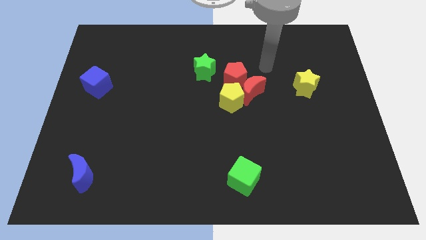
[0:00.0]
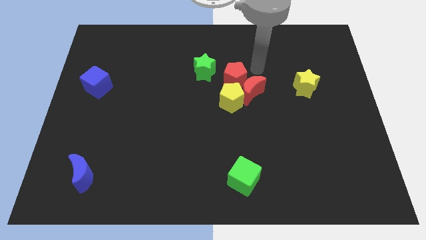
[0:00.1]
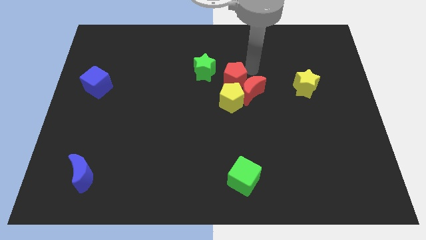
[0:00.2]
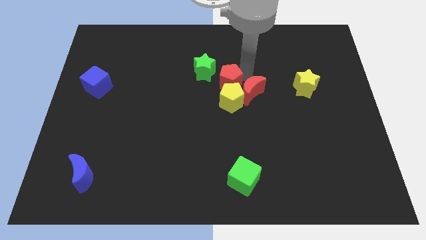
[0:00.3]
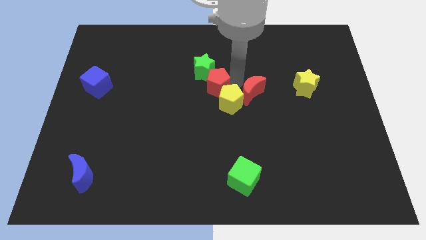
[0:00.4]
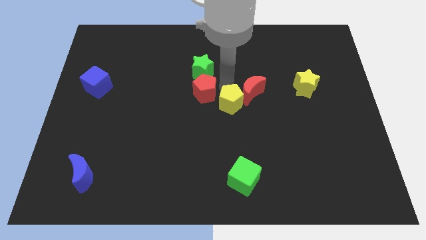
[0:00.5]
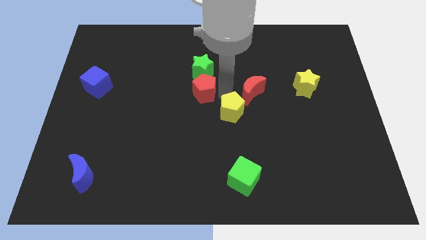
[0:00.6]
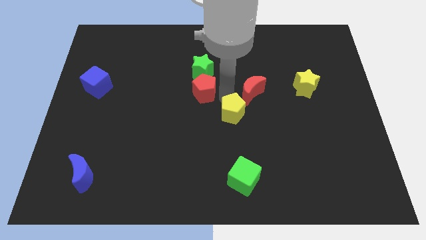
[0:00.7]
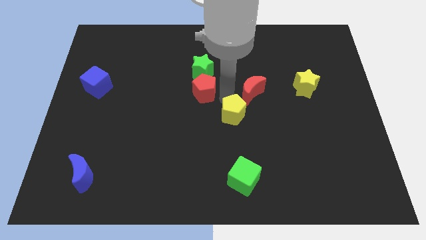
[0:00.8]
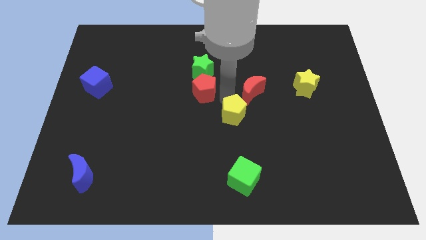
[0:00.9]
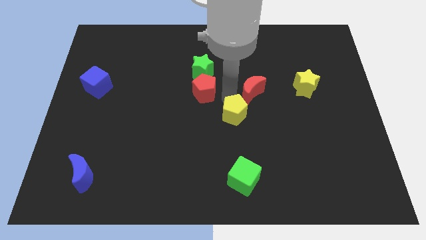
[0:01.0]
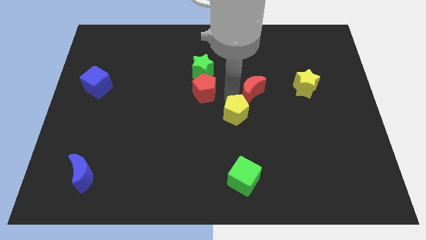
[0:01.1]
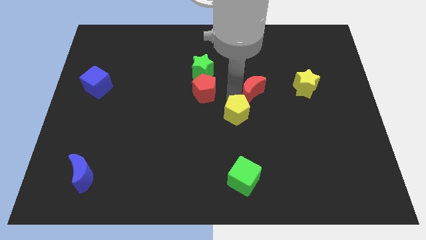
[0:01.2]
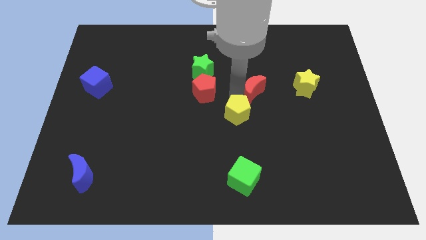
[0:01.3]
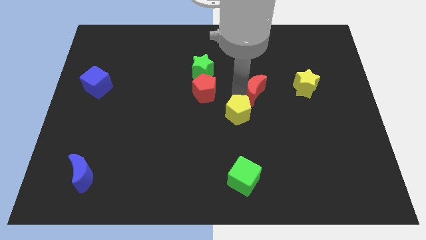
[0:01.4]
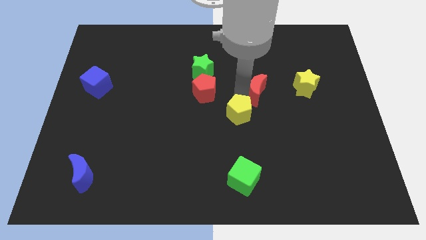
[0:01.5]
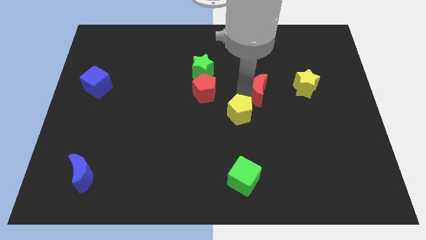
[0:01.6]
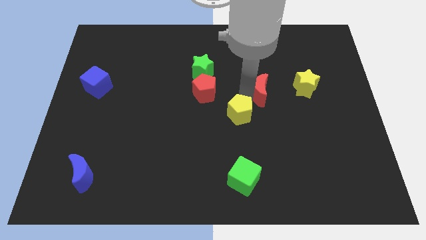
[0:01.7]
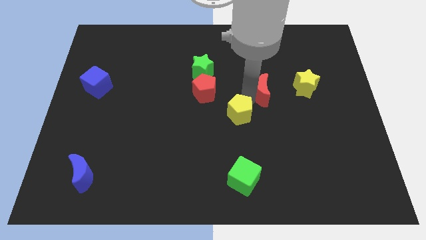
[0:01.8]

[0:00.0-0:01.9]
separate the red moon from the red pentagon and yellow pentagon

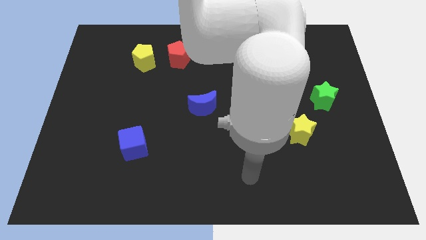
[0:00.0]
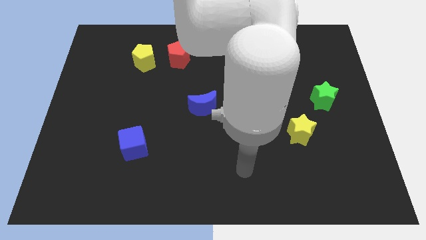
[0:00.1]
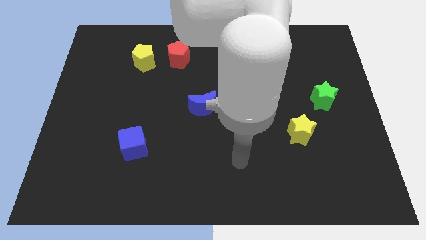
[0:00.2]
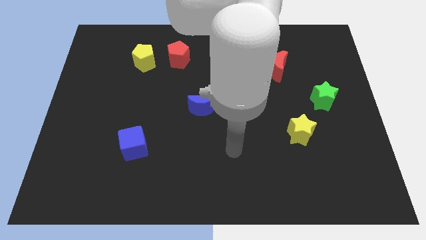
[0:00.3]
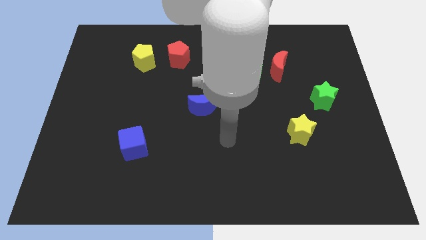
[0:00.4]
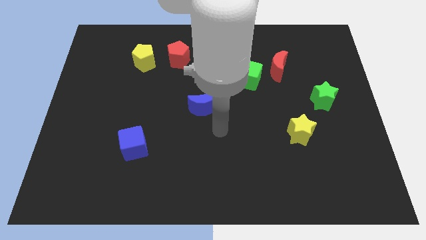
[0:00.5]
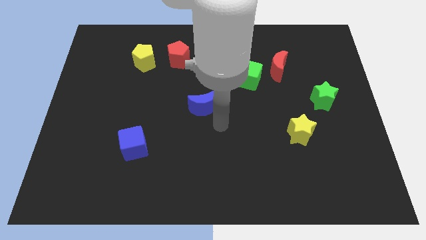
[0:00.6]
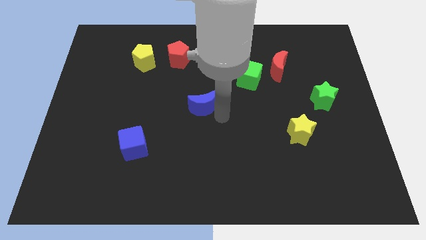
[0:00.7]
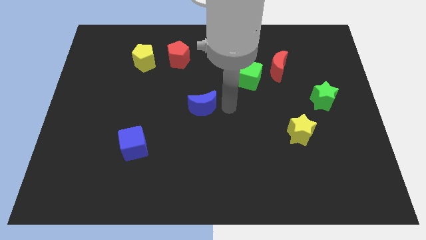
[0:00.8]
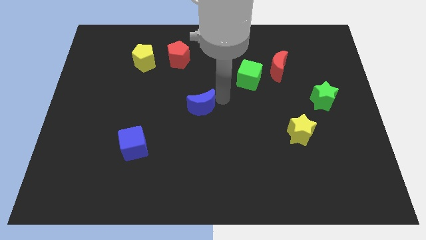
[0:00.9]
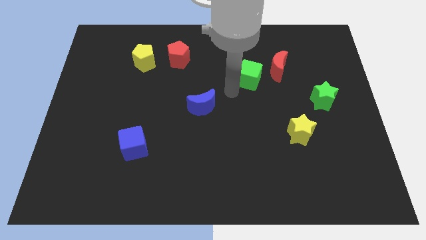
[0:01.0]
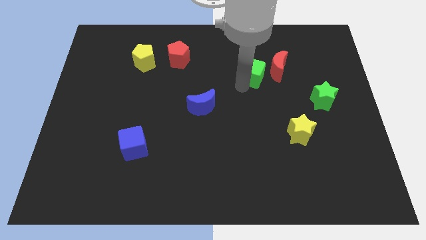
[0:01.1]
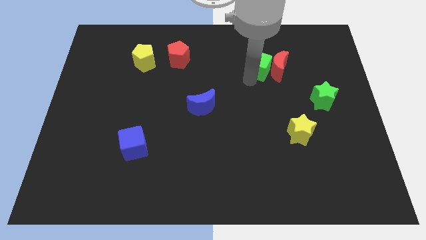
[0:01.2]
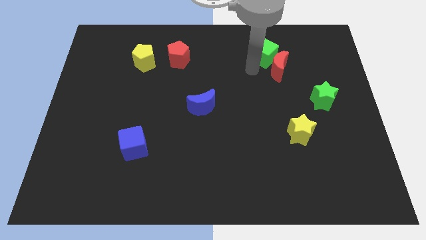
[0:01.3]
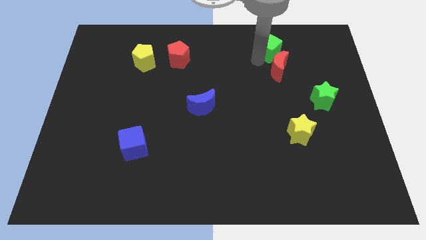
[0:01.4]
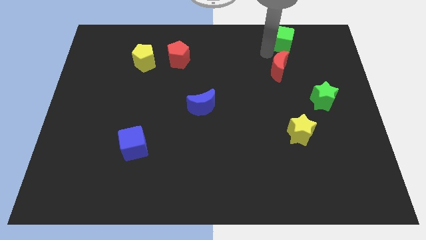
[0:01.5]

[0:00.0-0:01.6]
move the red moon away from the green cube

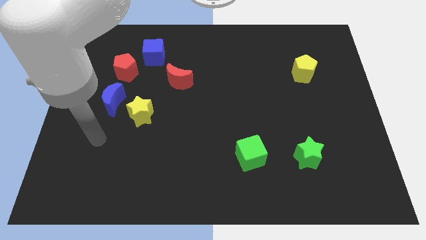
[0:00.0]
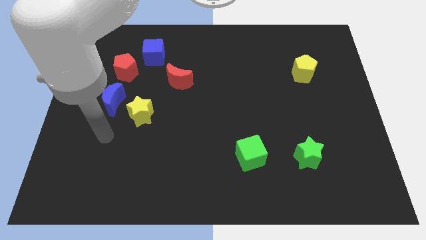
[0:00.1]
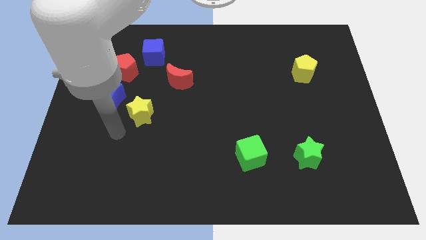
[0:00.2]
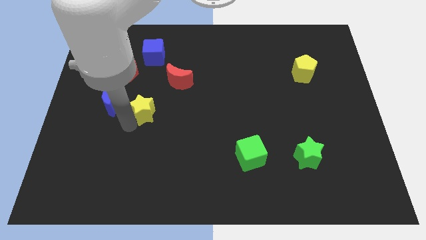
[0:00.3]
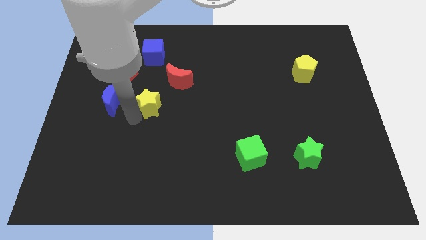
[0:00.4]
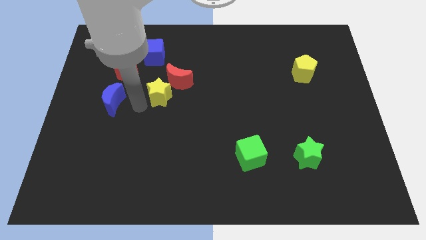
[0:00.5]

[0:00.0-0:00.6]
move the blue moon away from the yellow star

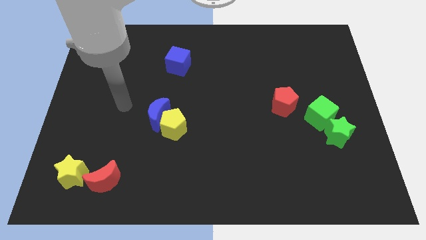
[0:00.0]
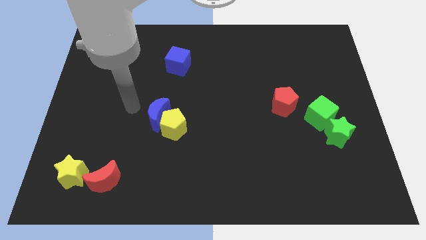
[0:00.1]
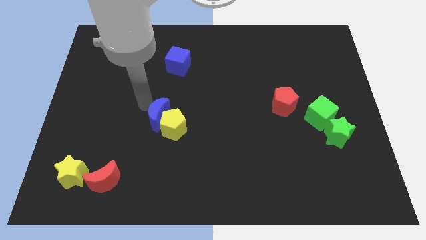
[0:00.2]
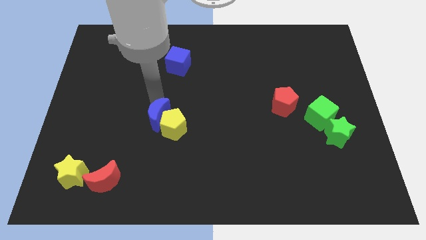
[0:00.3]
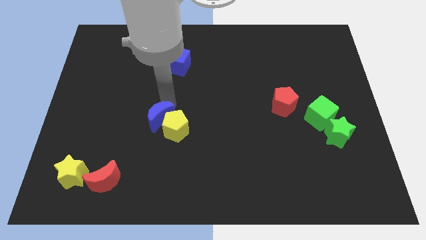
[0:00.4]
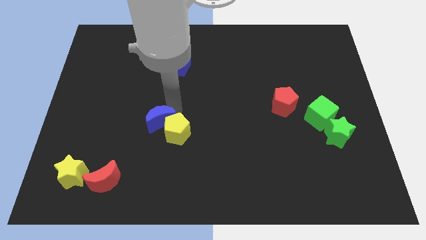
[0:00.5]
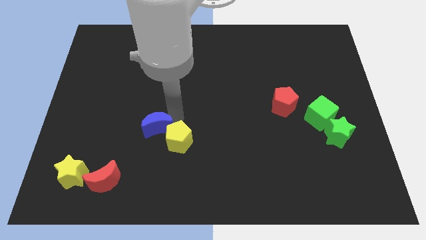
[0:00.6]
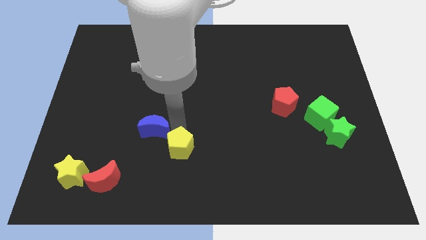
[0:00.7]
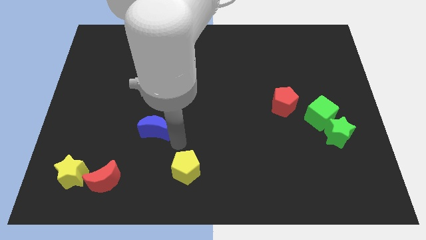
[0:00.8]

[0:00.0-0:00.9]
move the blue moon away from the yellow pentagon

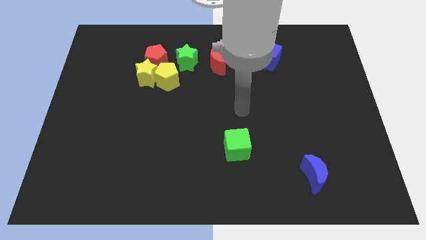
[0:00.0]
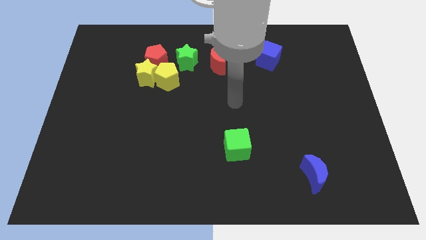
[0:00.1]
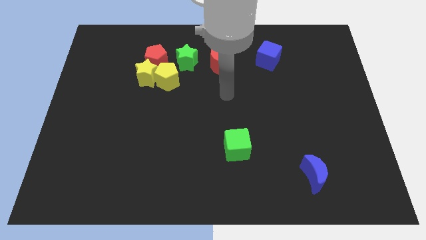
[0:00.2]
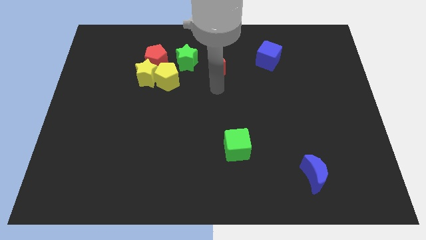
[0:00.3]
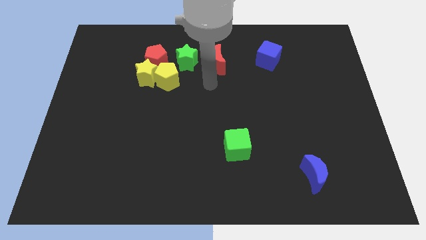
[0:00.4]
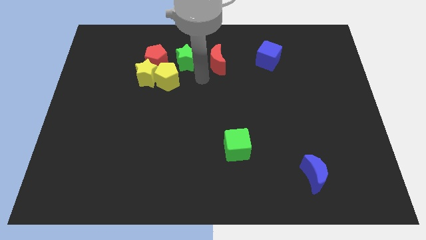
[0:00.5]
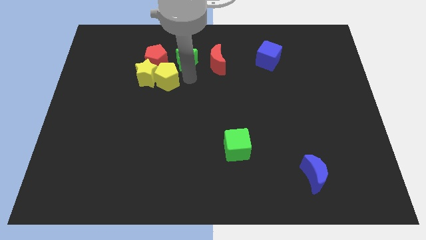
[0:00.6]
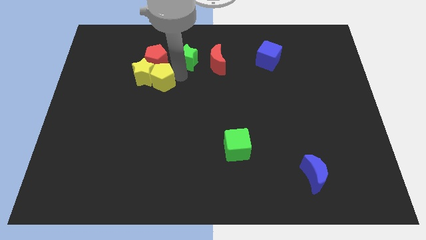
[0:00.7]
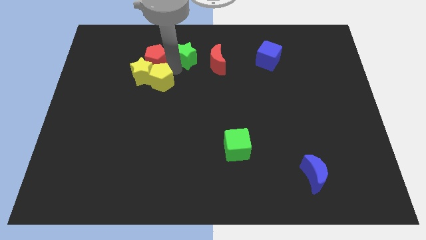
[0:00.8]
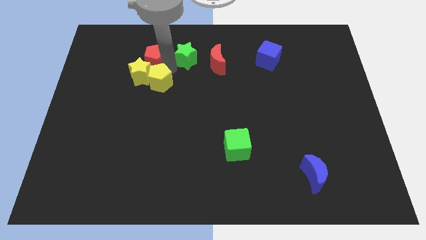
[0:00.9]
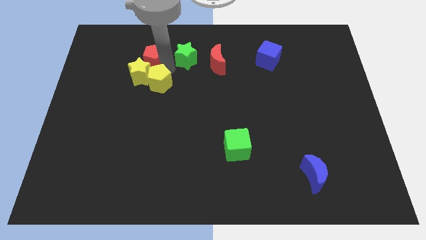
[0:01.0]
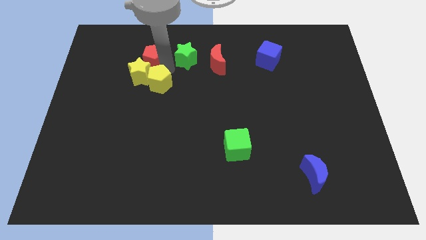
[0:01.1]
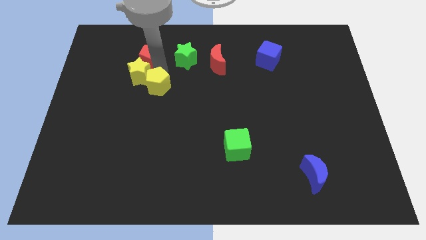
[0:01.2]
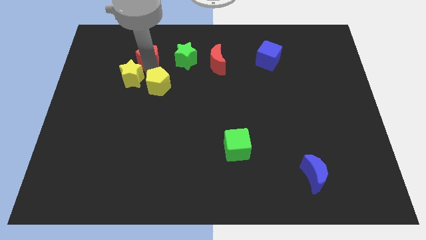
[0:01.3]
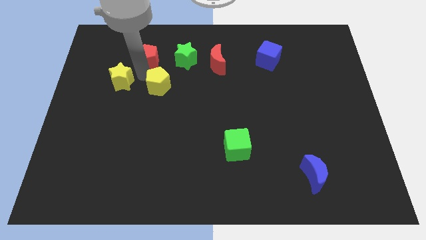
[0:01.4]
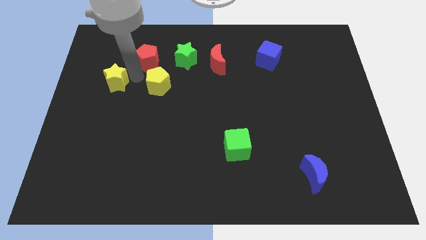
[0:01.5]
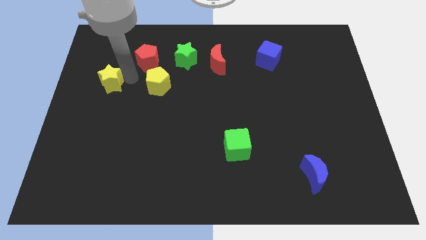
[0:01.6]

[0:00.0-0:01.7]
separate the yellow star from the yellow pentagon and red pentagon

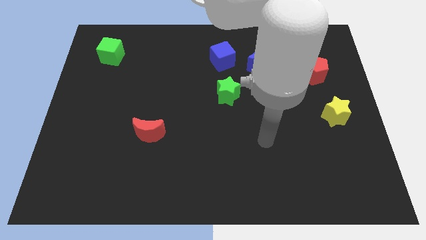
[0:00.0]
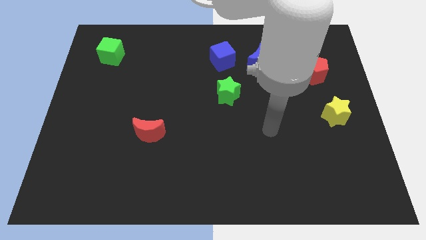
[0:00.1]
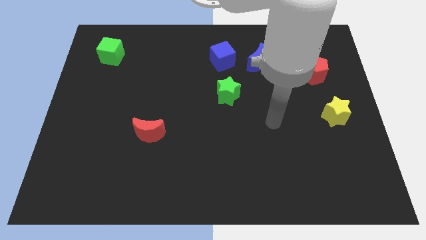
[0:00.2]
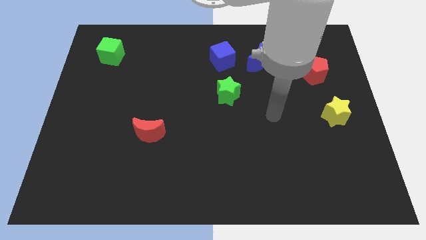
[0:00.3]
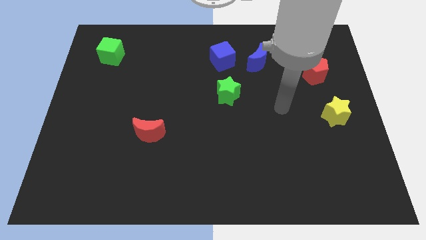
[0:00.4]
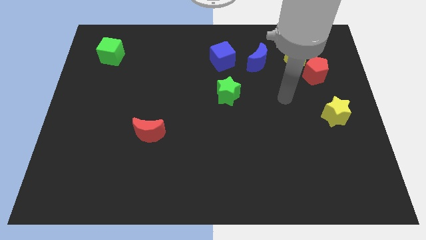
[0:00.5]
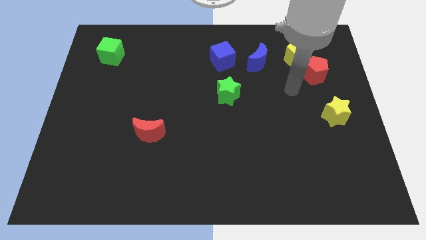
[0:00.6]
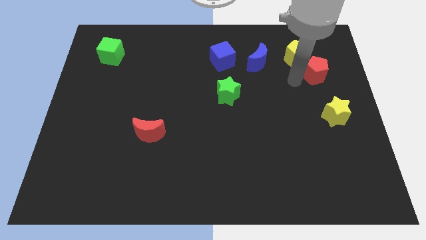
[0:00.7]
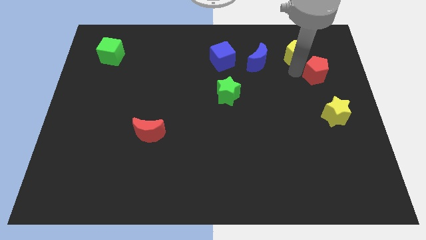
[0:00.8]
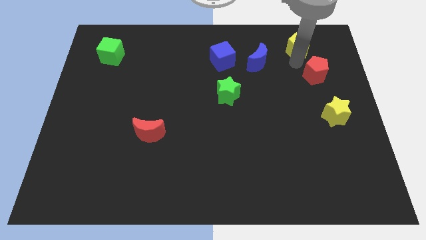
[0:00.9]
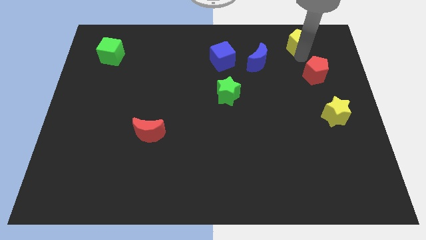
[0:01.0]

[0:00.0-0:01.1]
move the red pentagon away from the yellow pentagon

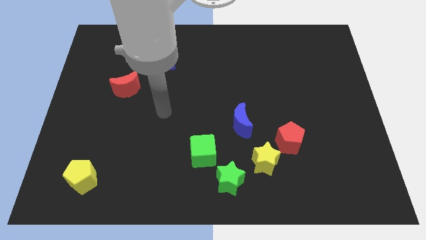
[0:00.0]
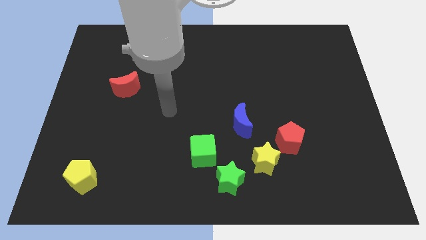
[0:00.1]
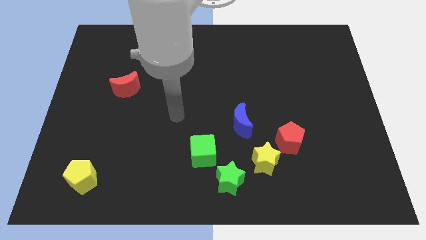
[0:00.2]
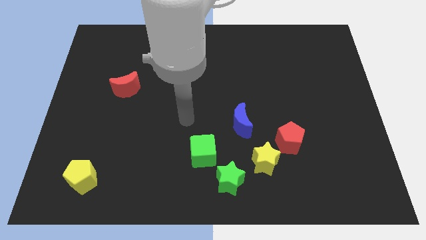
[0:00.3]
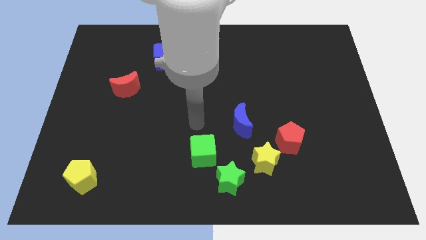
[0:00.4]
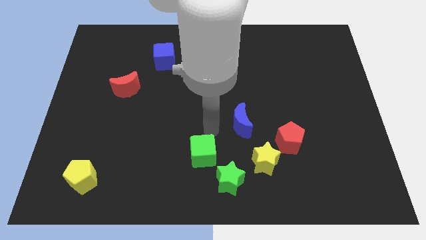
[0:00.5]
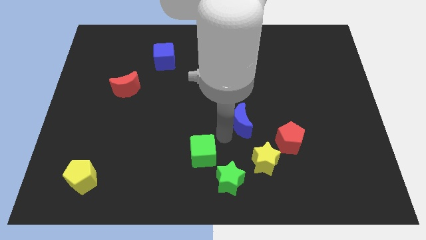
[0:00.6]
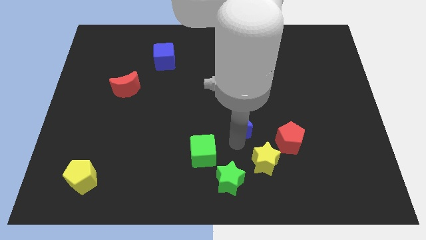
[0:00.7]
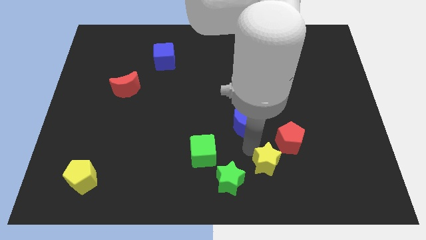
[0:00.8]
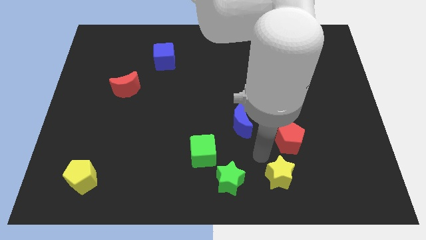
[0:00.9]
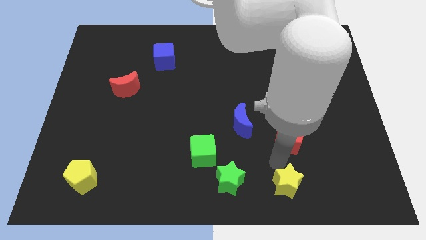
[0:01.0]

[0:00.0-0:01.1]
pull the red pentagon apart from the yellow star

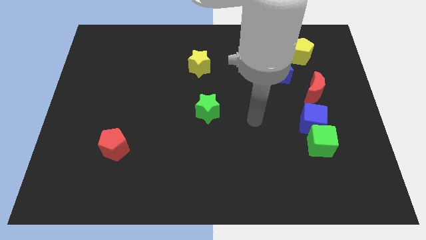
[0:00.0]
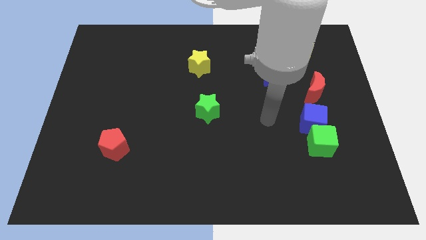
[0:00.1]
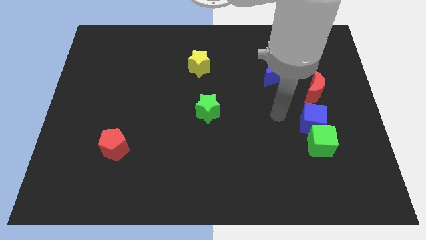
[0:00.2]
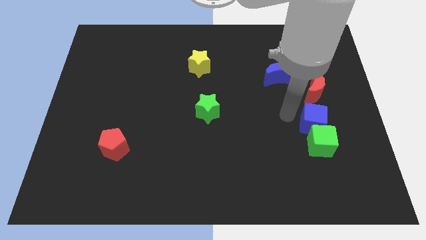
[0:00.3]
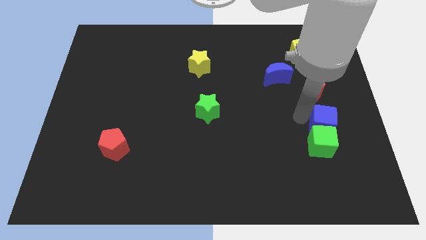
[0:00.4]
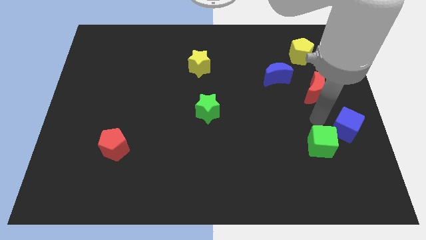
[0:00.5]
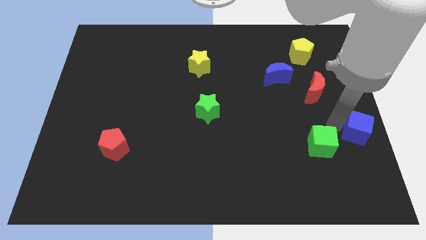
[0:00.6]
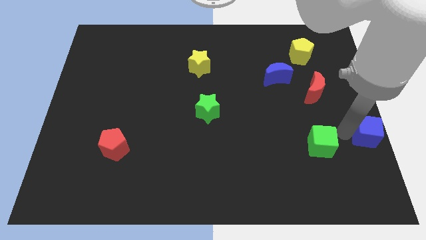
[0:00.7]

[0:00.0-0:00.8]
move the green cube away from the blue cube
